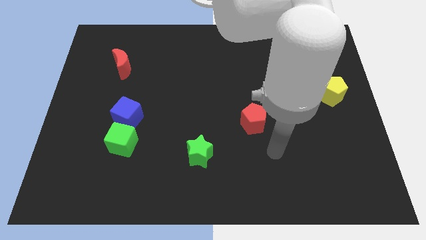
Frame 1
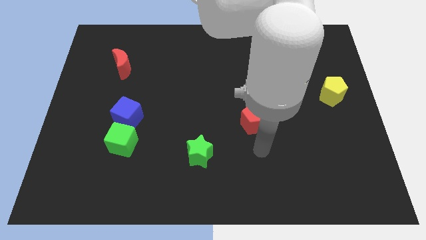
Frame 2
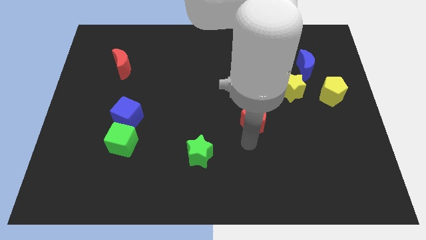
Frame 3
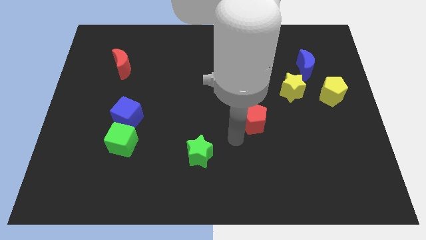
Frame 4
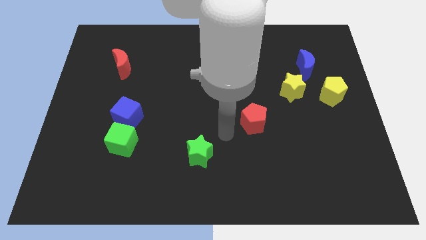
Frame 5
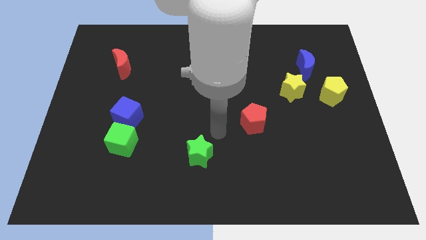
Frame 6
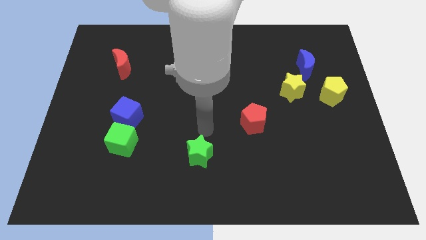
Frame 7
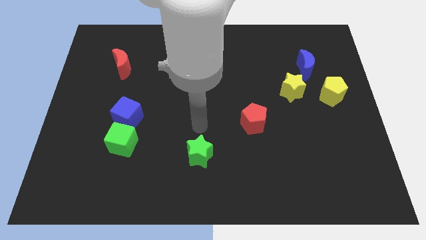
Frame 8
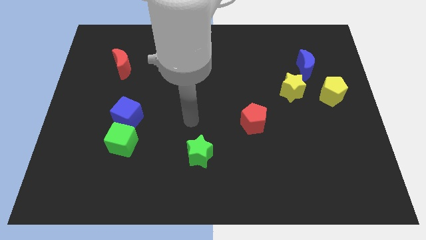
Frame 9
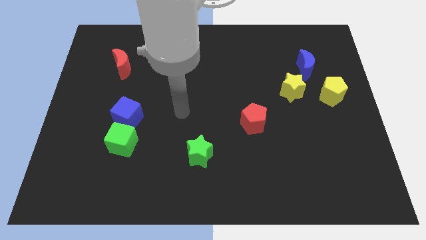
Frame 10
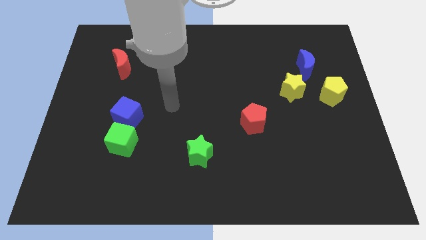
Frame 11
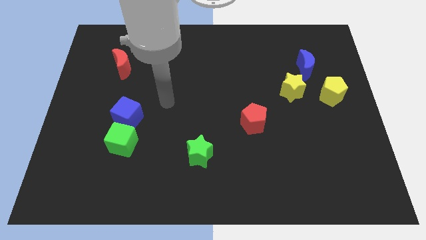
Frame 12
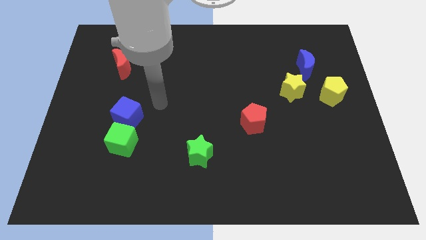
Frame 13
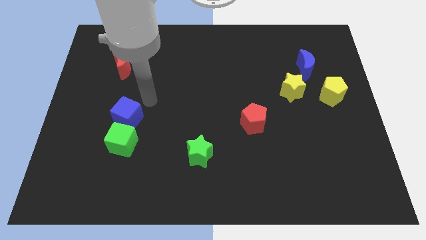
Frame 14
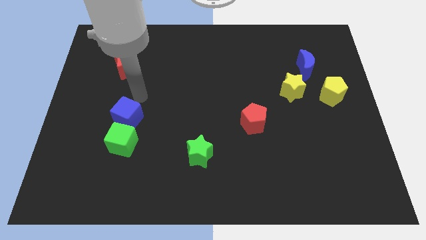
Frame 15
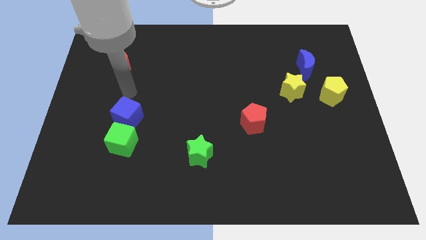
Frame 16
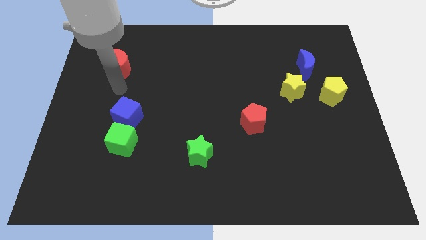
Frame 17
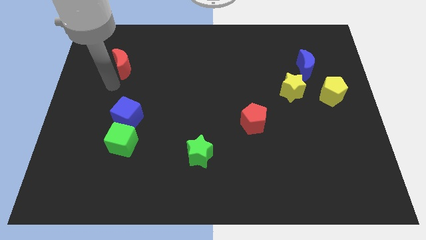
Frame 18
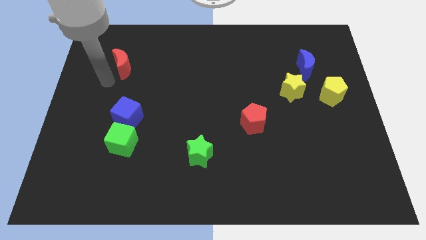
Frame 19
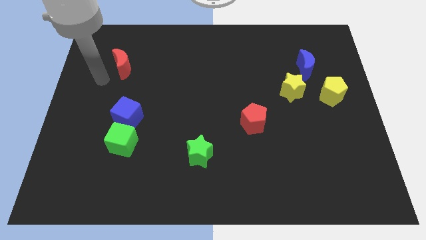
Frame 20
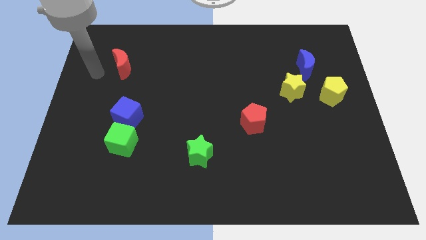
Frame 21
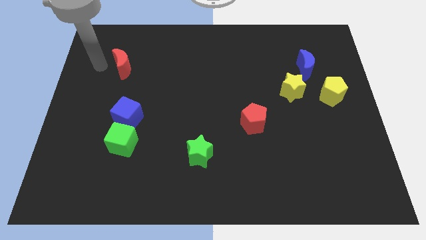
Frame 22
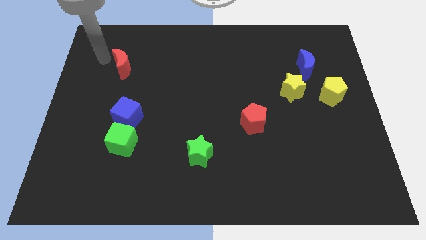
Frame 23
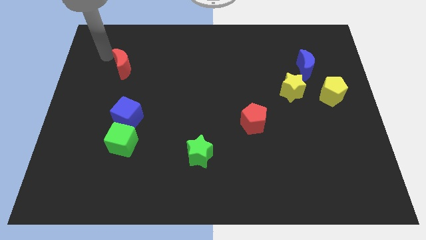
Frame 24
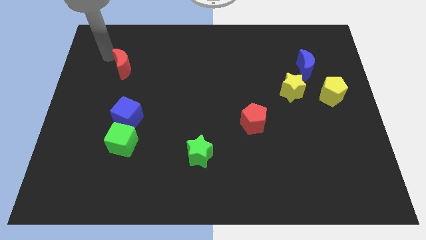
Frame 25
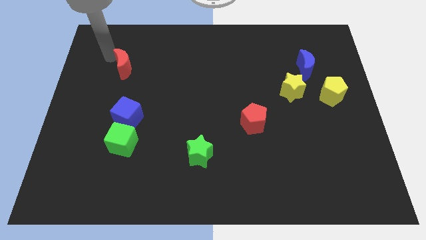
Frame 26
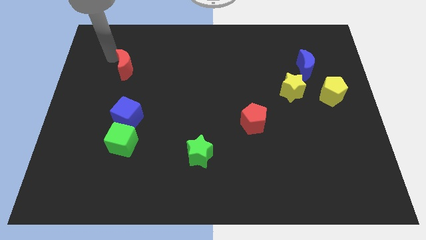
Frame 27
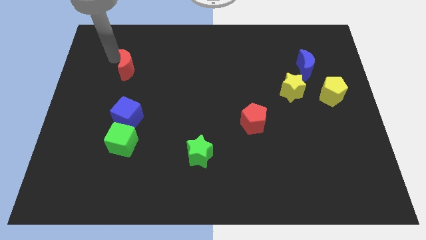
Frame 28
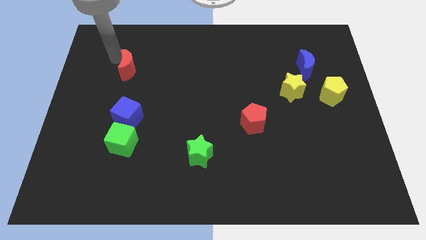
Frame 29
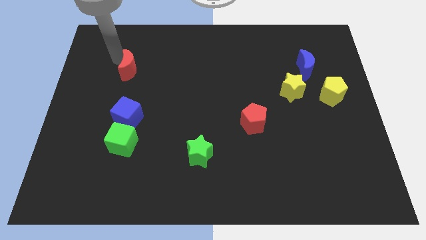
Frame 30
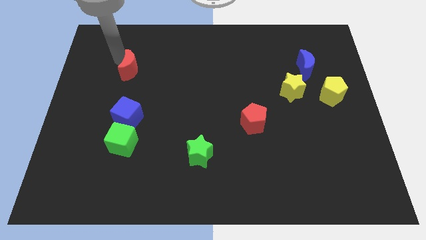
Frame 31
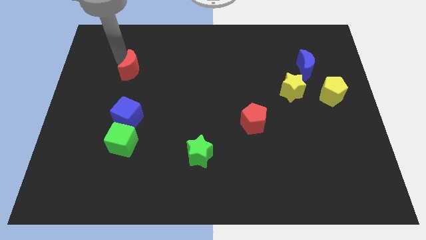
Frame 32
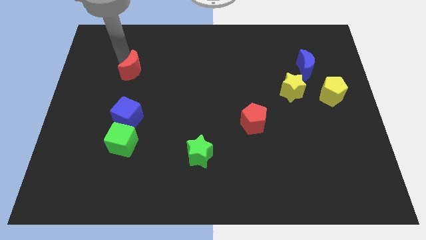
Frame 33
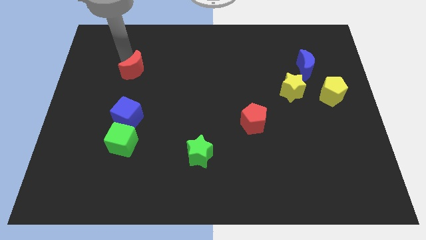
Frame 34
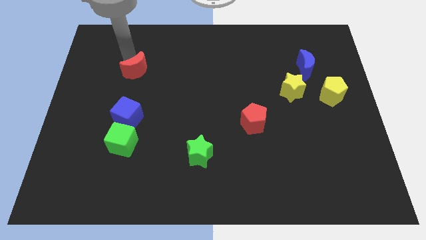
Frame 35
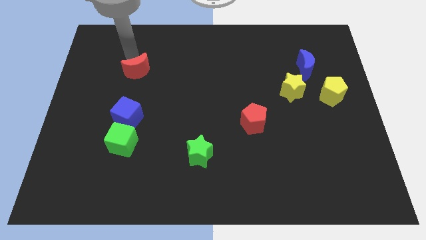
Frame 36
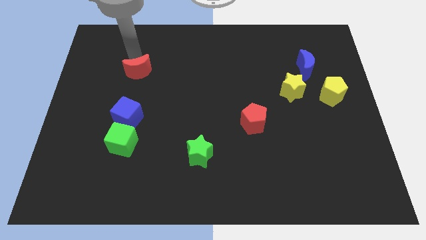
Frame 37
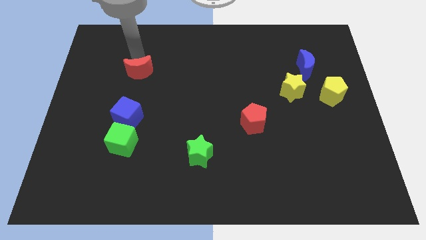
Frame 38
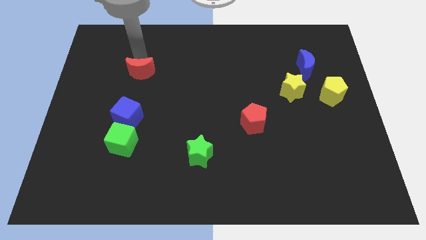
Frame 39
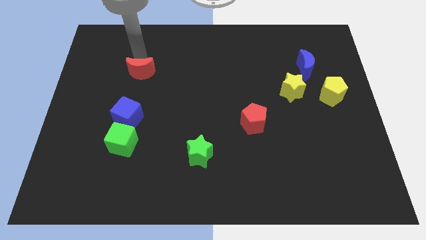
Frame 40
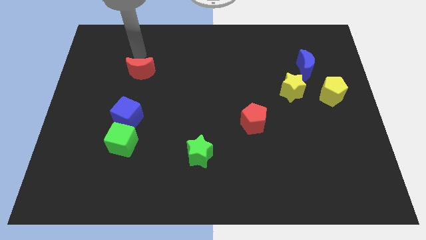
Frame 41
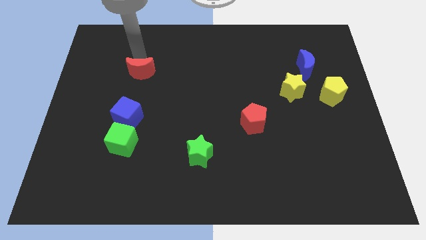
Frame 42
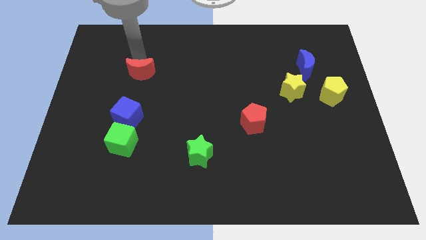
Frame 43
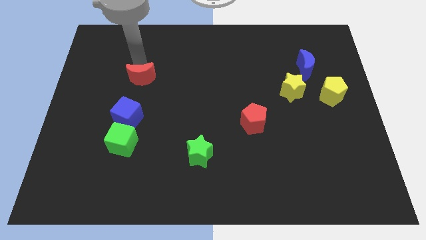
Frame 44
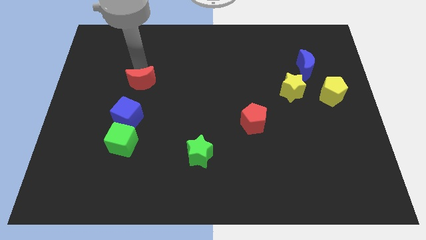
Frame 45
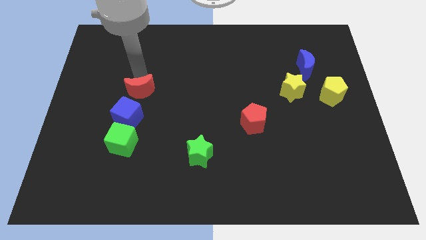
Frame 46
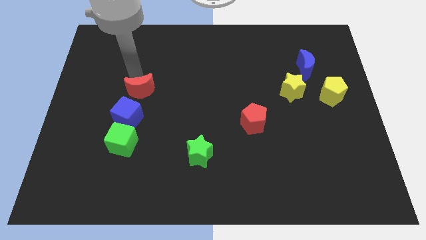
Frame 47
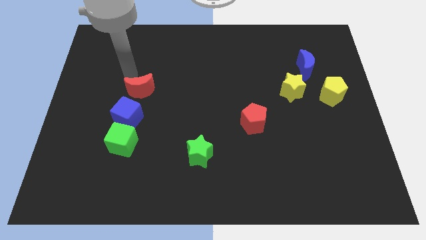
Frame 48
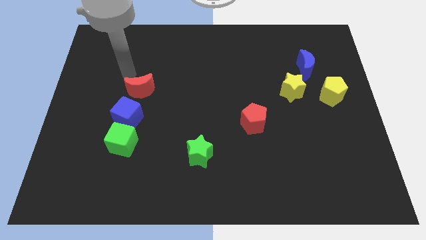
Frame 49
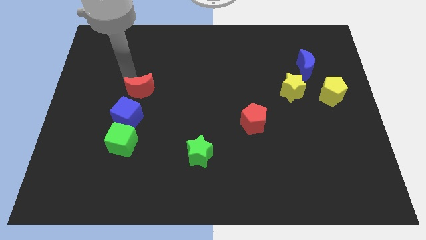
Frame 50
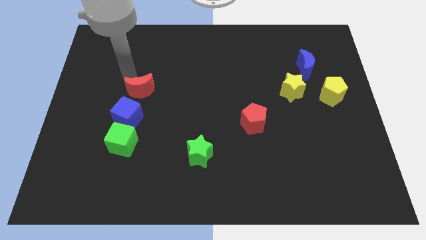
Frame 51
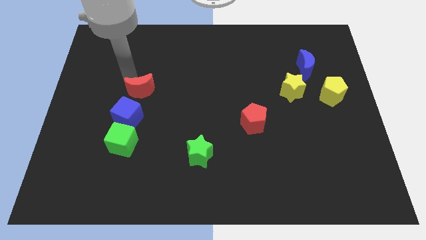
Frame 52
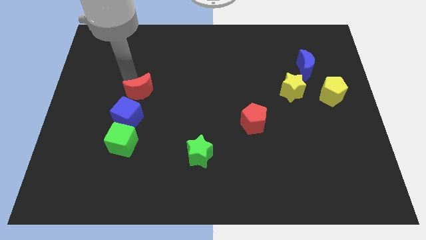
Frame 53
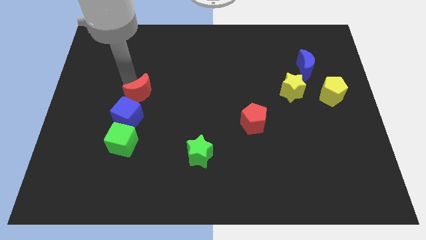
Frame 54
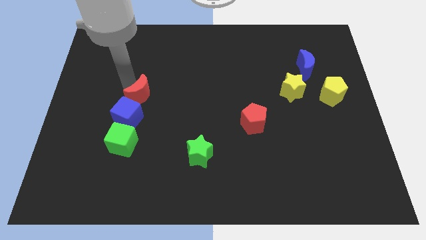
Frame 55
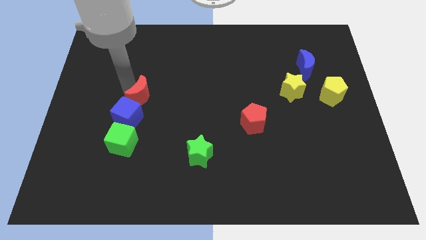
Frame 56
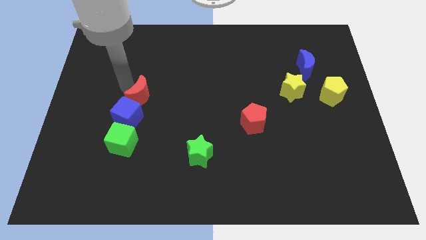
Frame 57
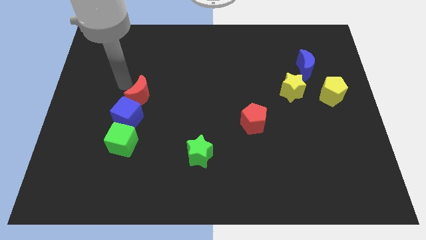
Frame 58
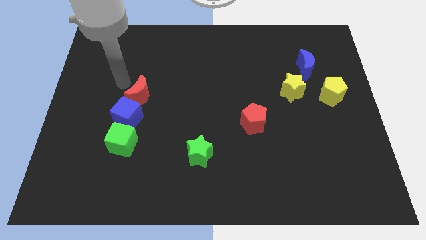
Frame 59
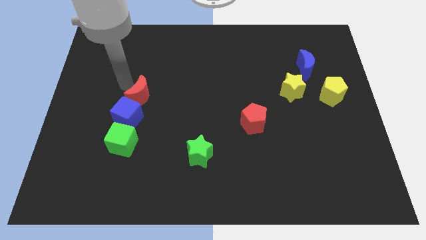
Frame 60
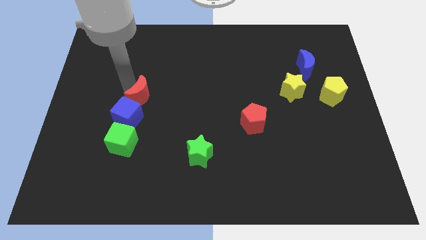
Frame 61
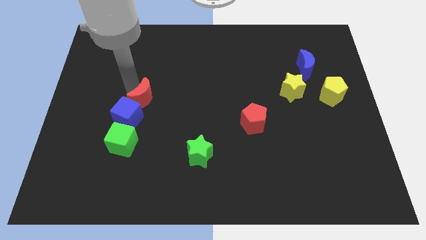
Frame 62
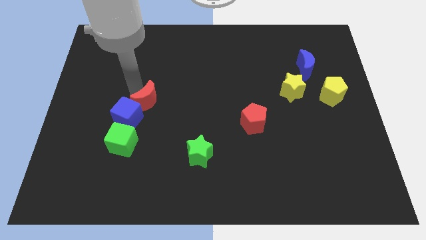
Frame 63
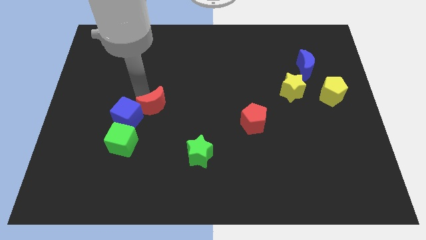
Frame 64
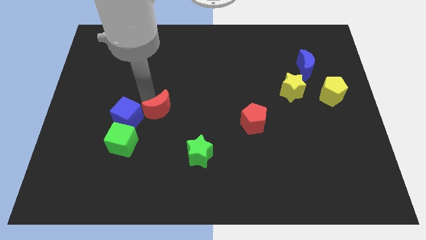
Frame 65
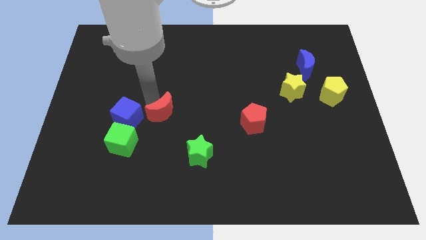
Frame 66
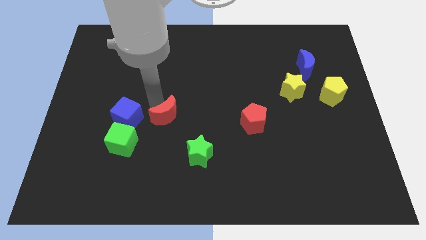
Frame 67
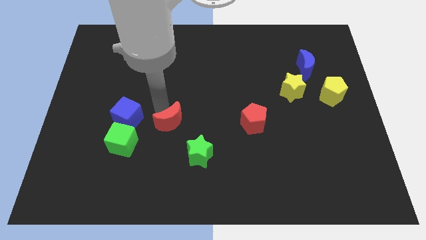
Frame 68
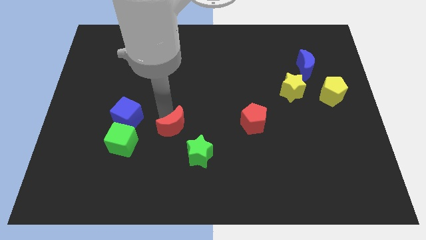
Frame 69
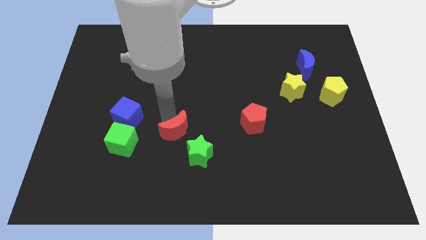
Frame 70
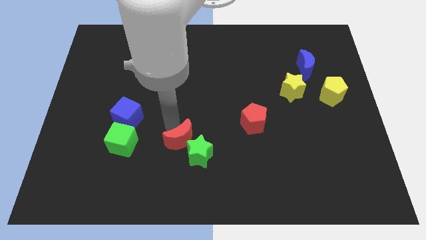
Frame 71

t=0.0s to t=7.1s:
put the red moon to the green star
